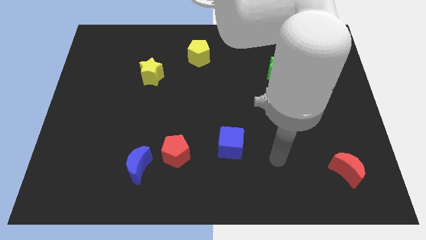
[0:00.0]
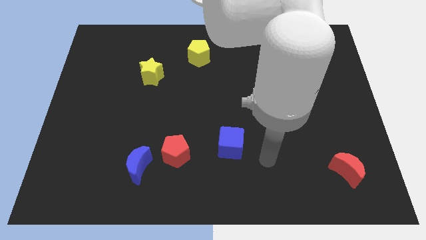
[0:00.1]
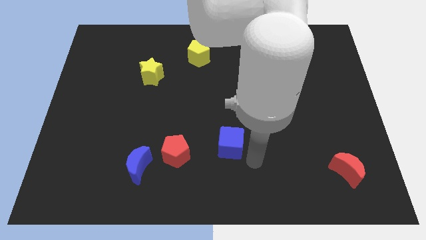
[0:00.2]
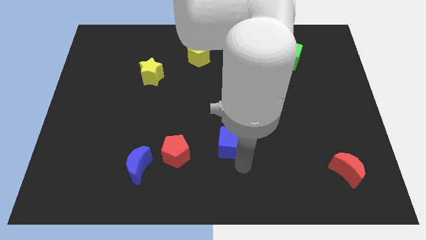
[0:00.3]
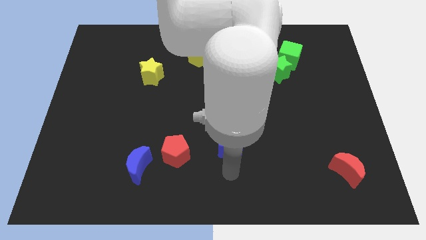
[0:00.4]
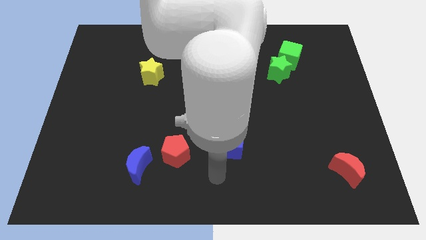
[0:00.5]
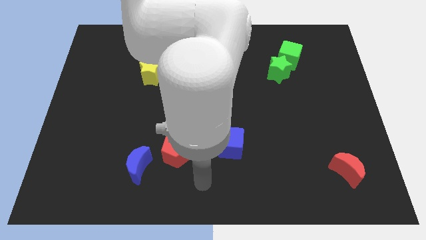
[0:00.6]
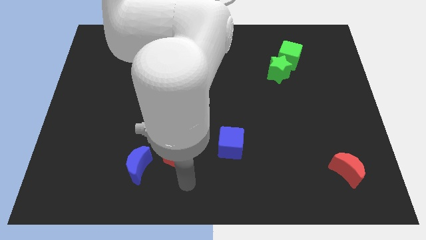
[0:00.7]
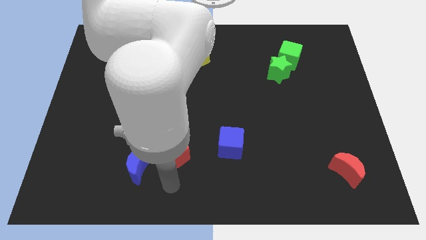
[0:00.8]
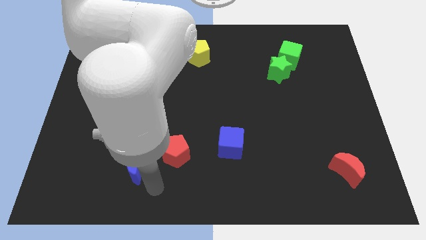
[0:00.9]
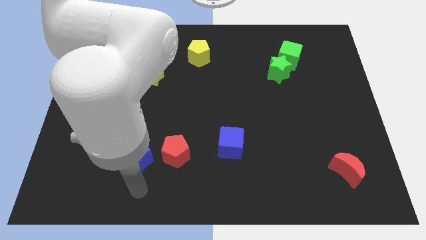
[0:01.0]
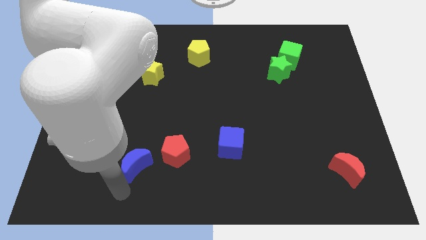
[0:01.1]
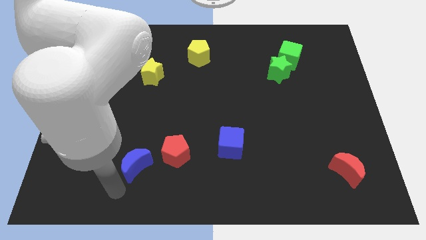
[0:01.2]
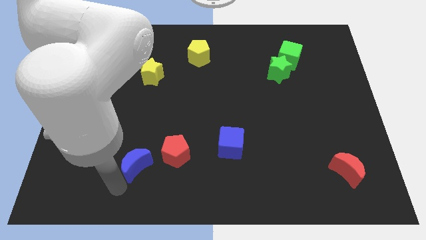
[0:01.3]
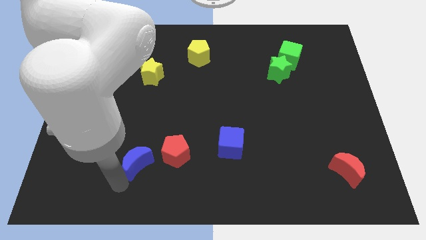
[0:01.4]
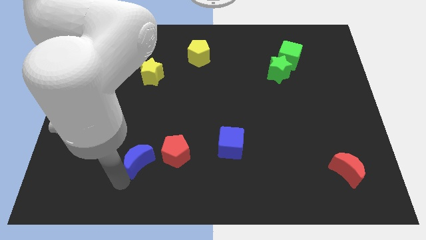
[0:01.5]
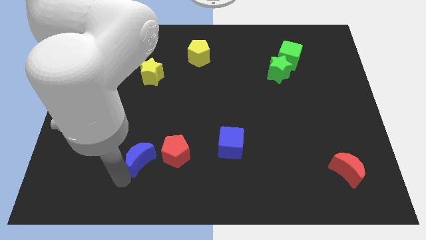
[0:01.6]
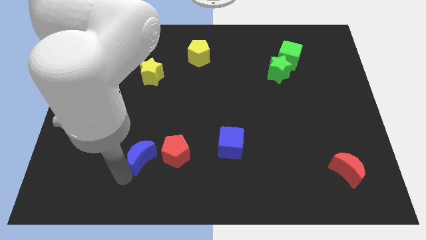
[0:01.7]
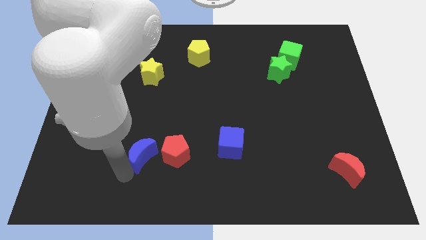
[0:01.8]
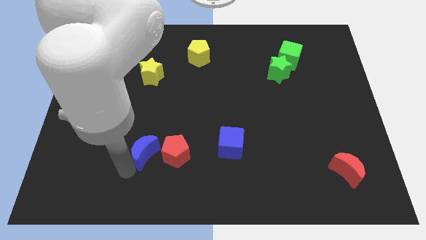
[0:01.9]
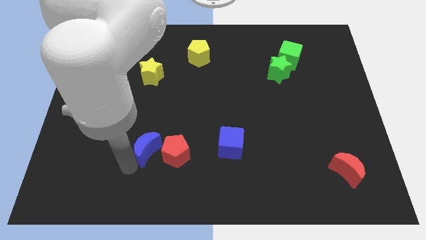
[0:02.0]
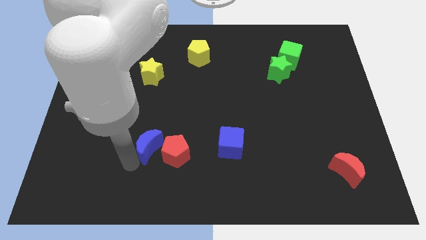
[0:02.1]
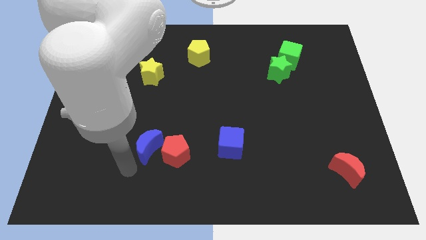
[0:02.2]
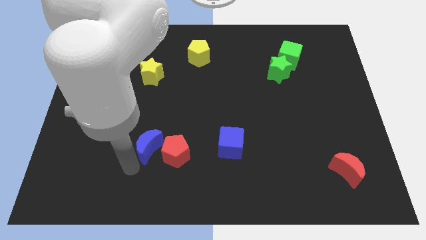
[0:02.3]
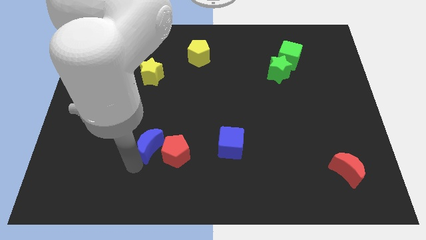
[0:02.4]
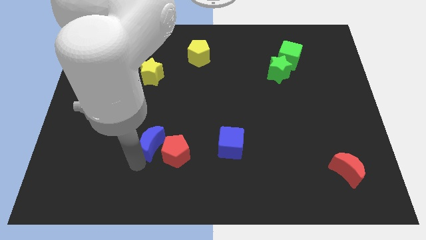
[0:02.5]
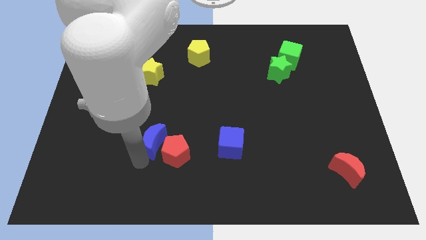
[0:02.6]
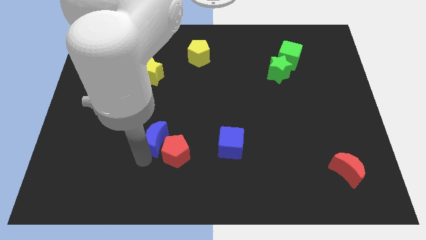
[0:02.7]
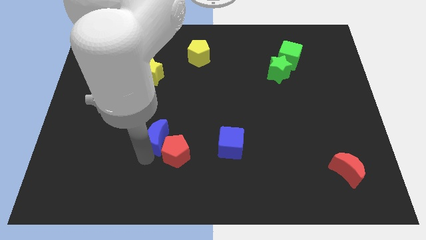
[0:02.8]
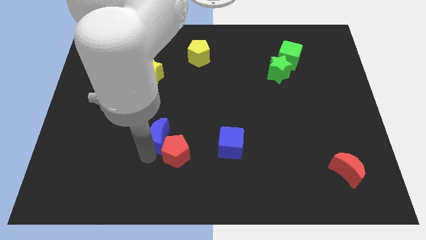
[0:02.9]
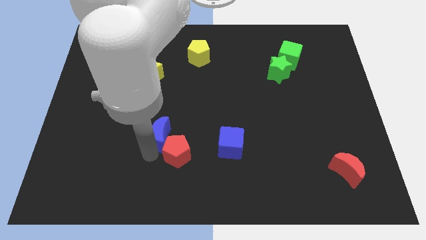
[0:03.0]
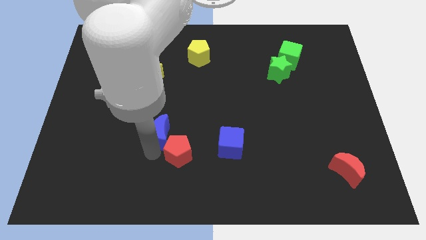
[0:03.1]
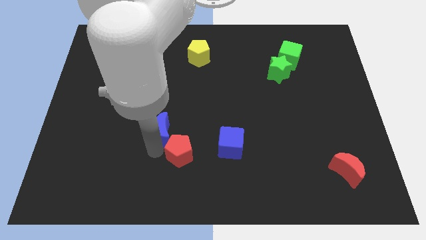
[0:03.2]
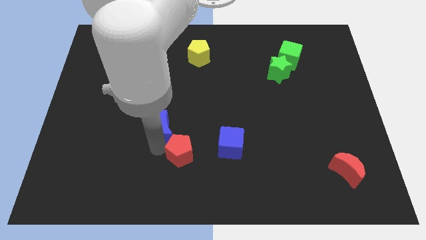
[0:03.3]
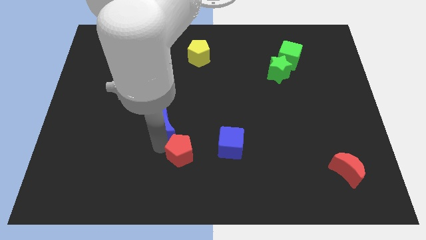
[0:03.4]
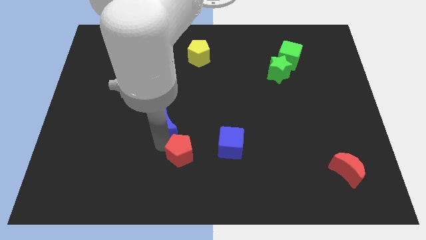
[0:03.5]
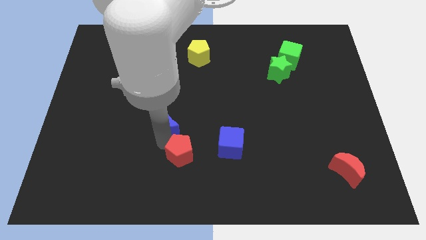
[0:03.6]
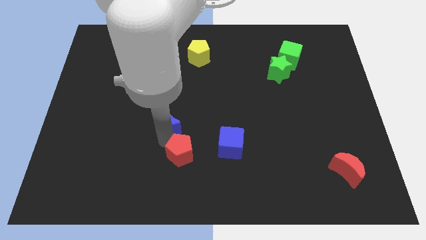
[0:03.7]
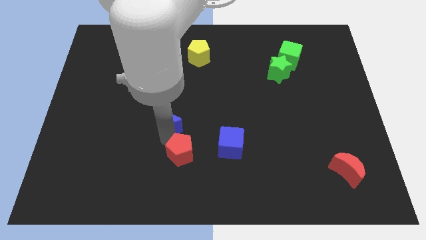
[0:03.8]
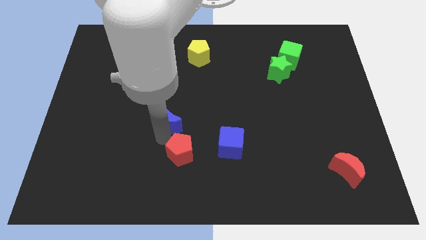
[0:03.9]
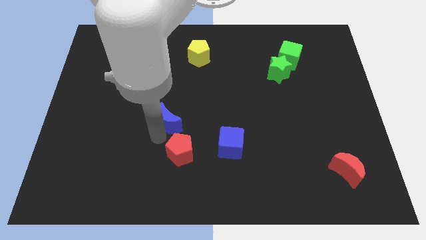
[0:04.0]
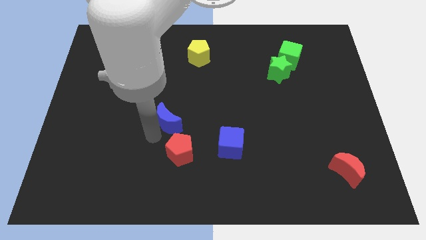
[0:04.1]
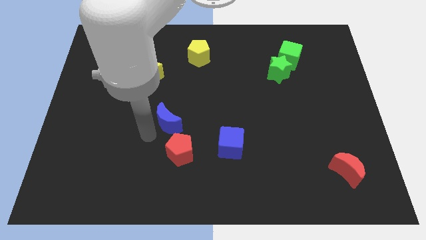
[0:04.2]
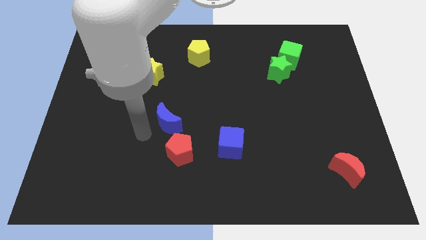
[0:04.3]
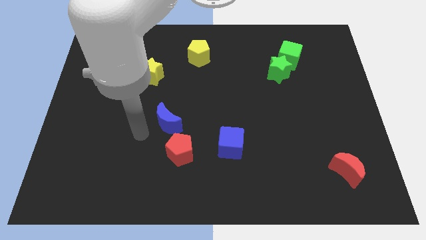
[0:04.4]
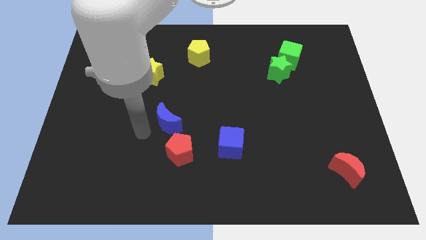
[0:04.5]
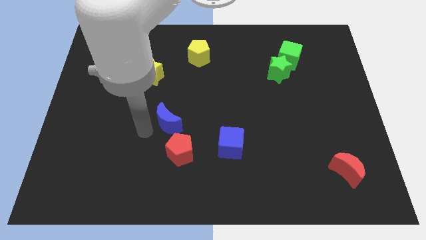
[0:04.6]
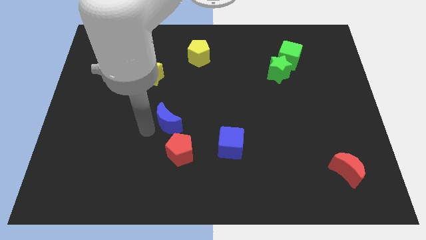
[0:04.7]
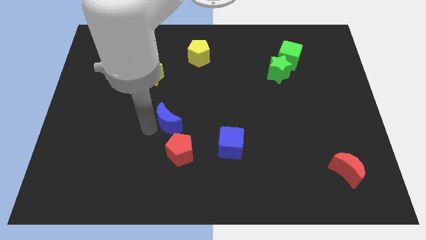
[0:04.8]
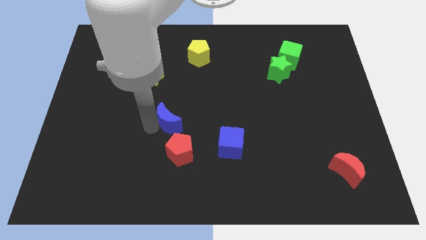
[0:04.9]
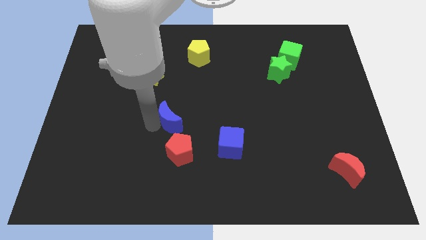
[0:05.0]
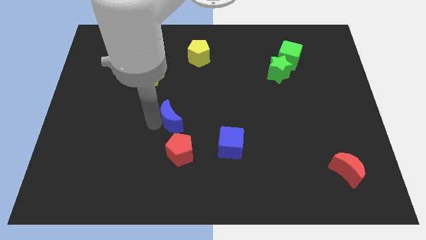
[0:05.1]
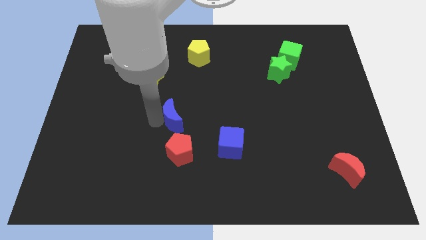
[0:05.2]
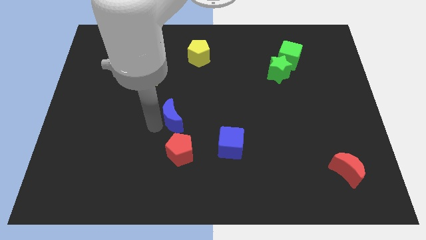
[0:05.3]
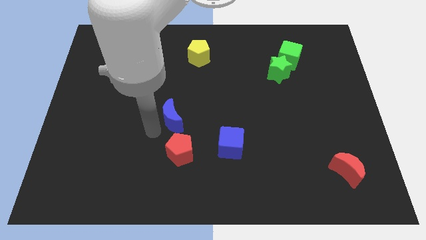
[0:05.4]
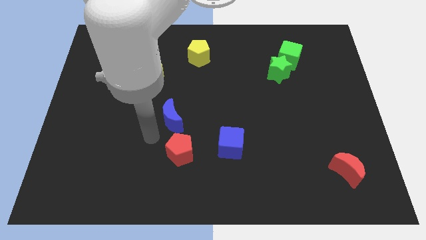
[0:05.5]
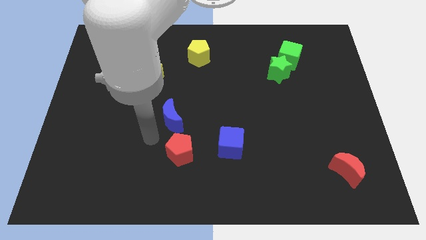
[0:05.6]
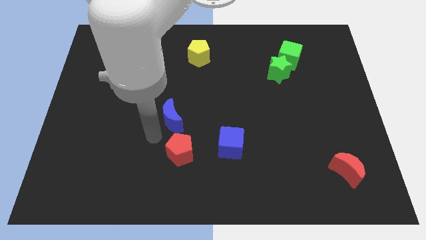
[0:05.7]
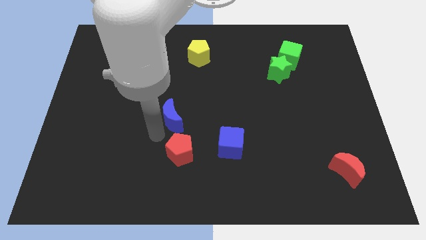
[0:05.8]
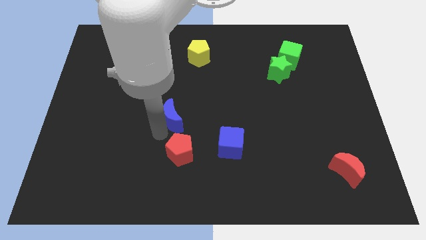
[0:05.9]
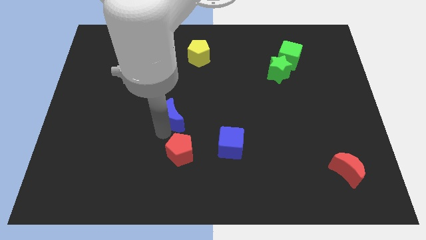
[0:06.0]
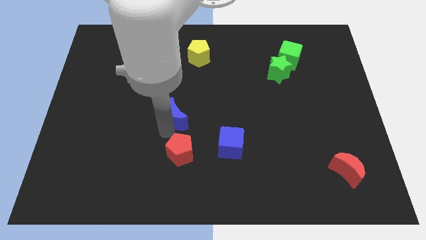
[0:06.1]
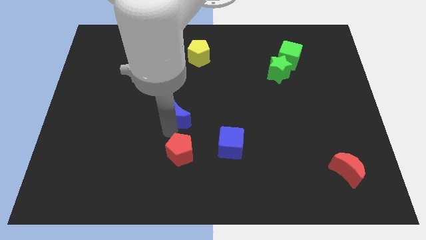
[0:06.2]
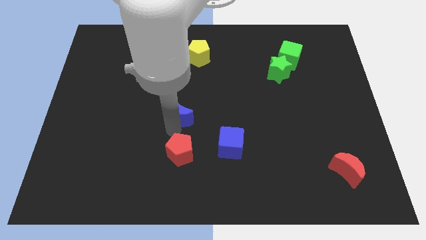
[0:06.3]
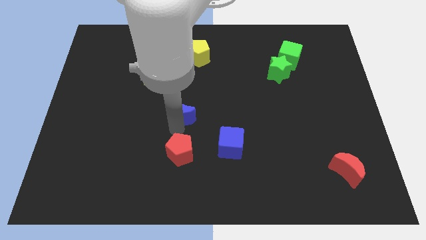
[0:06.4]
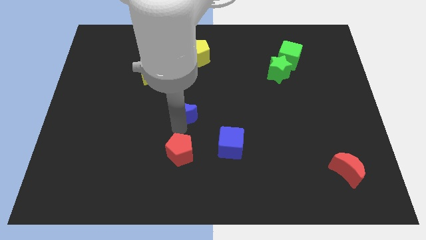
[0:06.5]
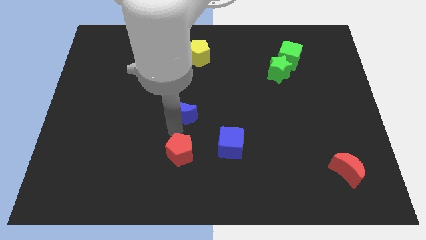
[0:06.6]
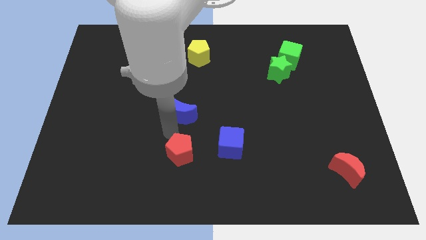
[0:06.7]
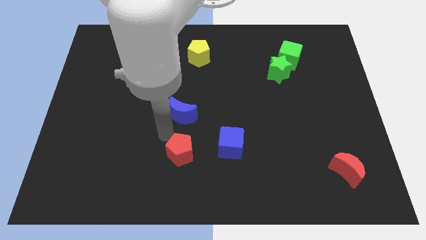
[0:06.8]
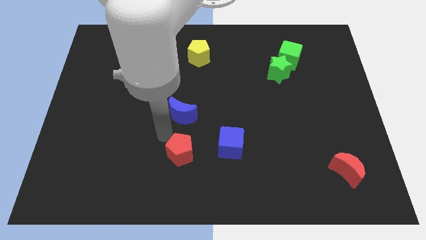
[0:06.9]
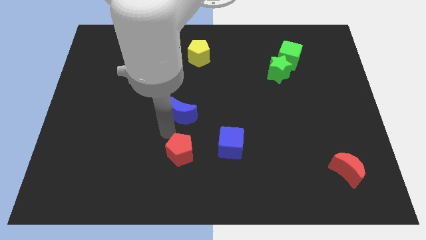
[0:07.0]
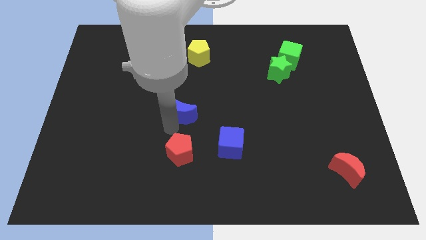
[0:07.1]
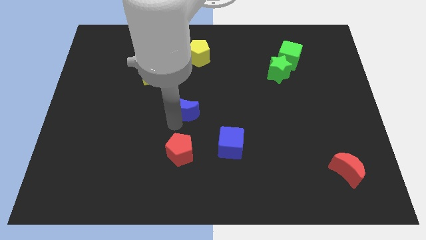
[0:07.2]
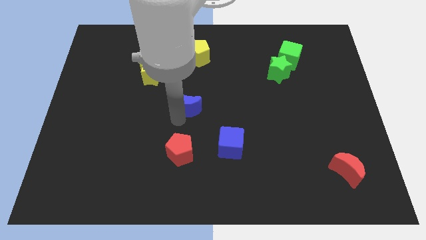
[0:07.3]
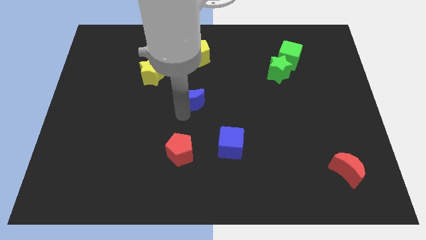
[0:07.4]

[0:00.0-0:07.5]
put the blue moon below the yellow pentagon
